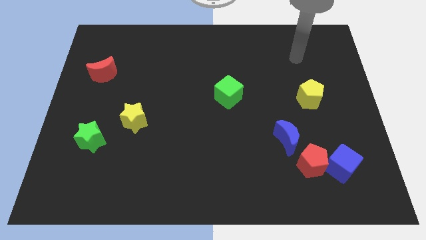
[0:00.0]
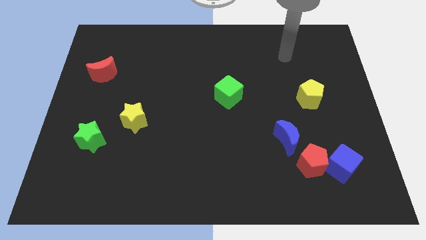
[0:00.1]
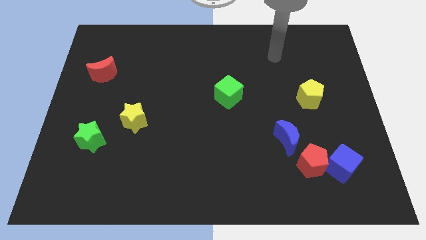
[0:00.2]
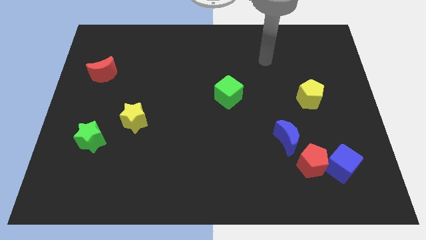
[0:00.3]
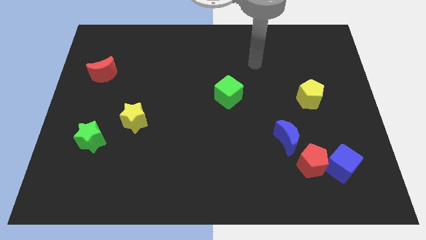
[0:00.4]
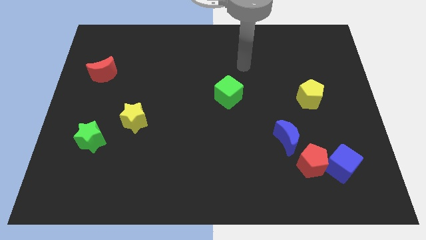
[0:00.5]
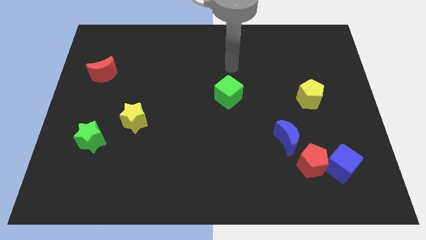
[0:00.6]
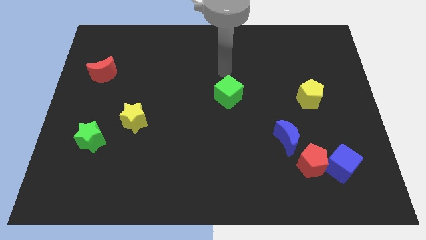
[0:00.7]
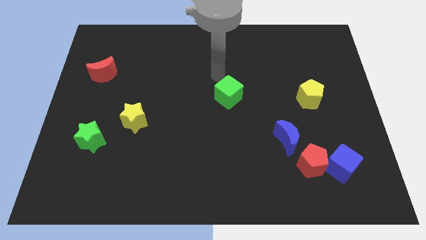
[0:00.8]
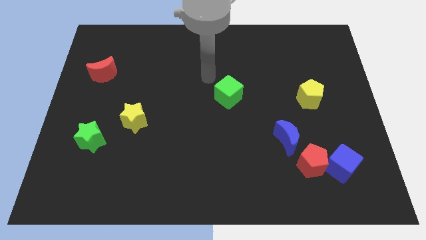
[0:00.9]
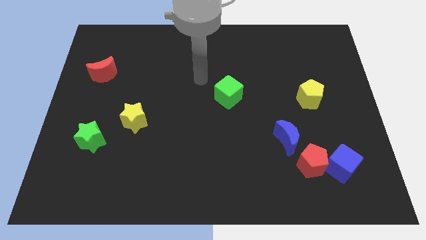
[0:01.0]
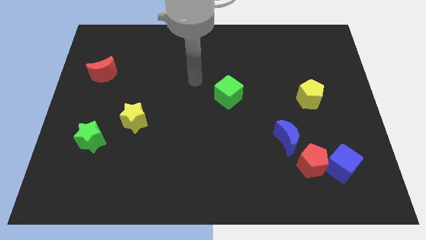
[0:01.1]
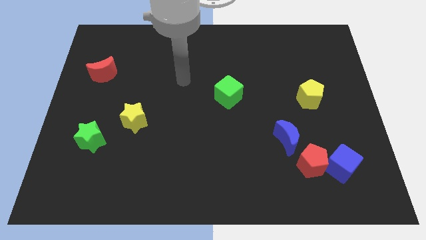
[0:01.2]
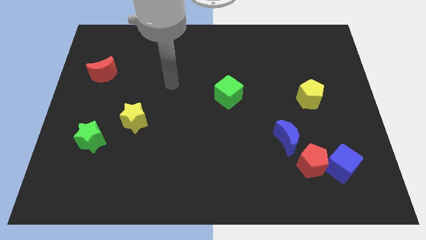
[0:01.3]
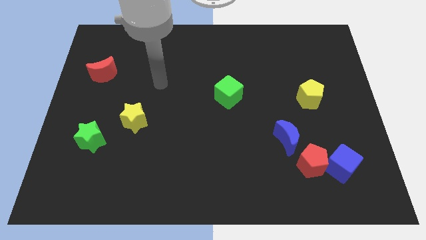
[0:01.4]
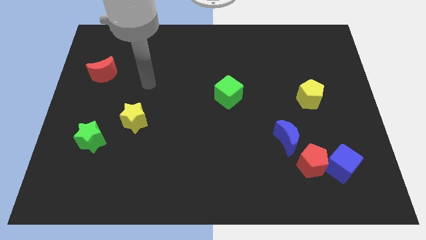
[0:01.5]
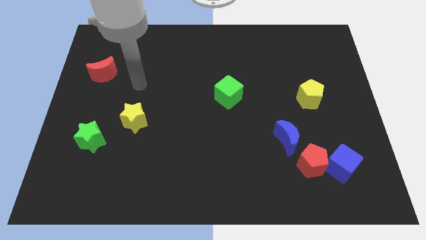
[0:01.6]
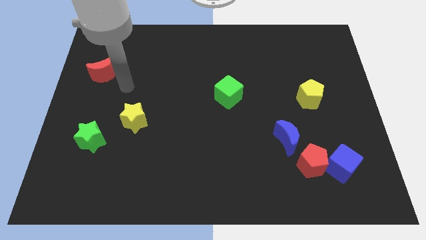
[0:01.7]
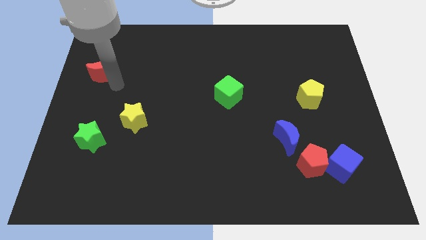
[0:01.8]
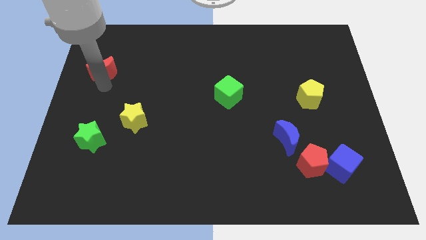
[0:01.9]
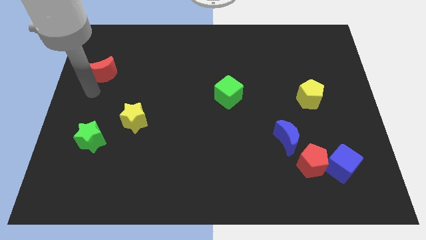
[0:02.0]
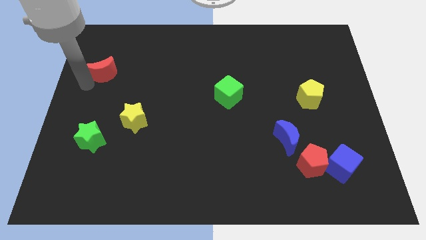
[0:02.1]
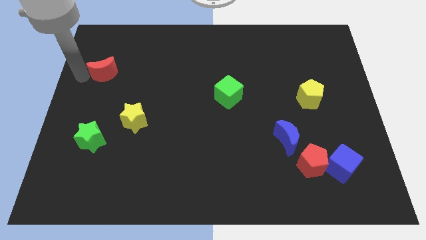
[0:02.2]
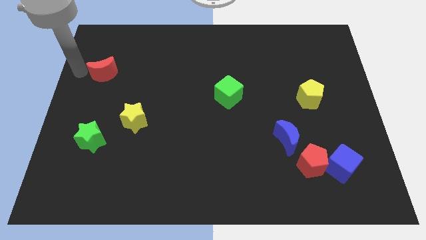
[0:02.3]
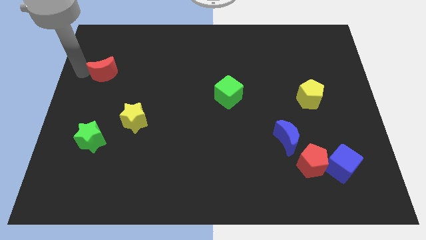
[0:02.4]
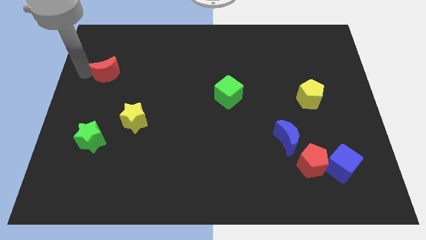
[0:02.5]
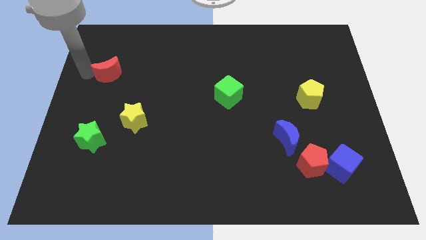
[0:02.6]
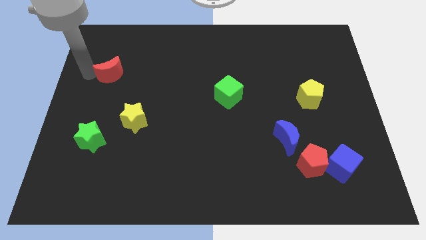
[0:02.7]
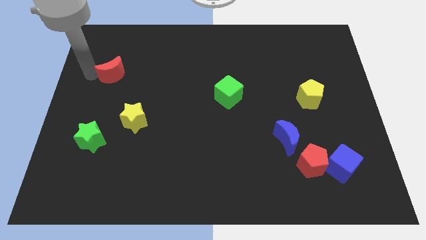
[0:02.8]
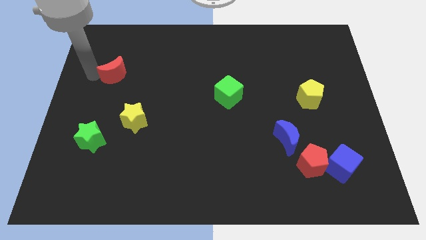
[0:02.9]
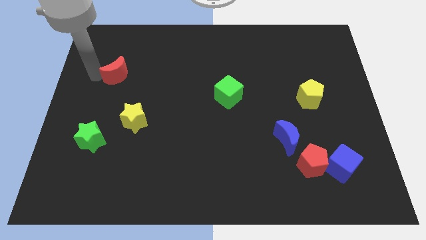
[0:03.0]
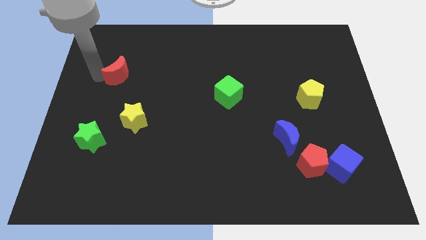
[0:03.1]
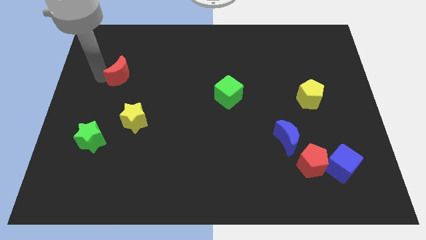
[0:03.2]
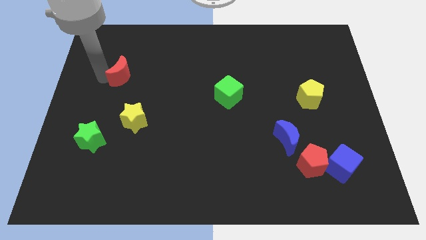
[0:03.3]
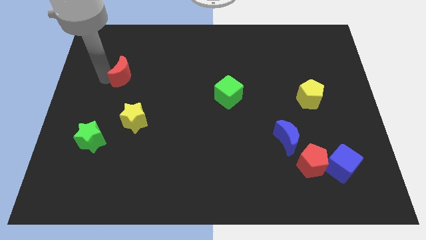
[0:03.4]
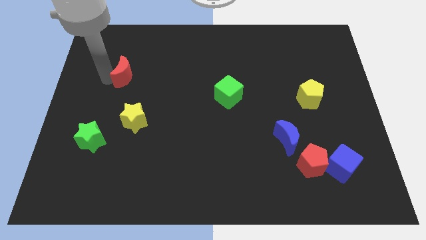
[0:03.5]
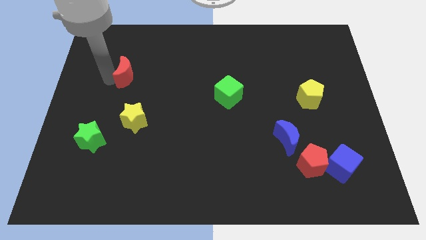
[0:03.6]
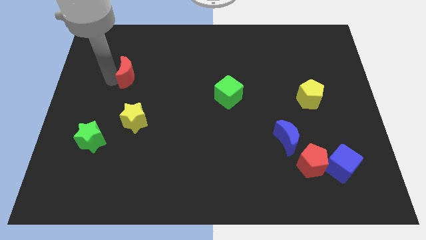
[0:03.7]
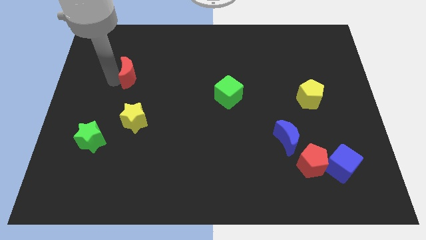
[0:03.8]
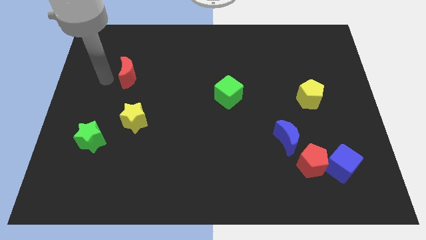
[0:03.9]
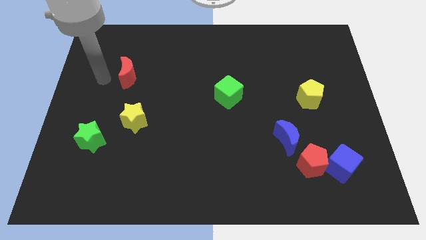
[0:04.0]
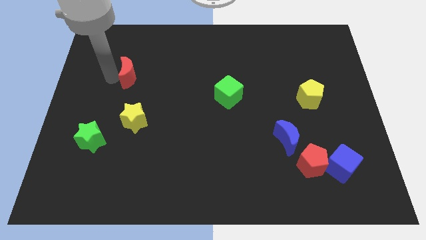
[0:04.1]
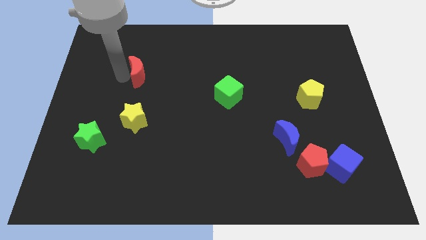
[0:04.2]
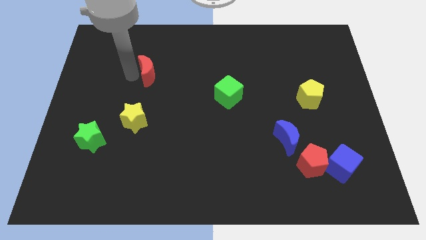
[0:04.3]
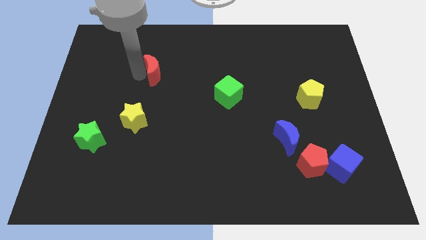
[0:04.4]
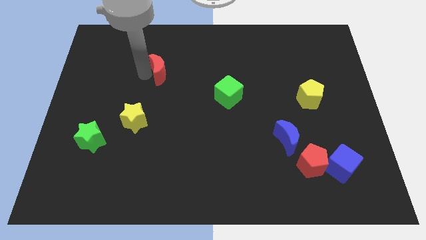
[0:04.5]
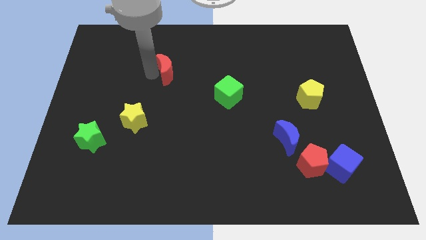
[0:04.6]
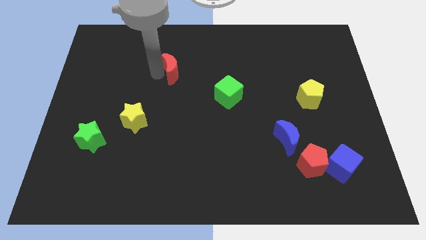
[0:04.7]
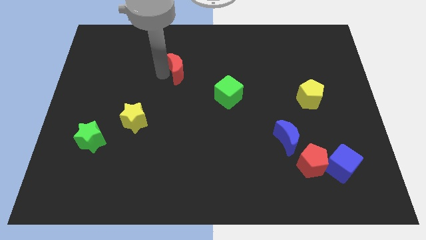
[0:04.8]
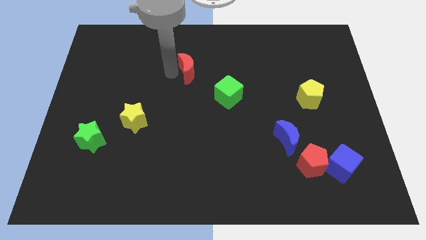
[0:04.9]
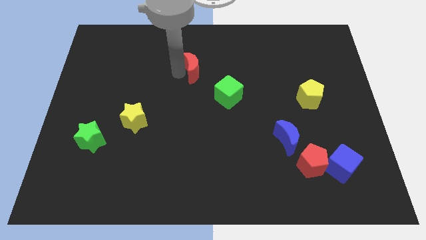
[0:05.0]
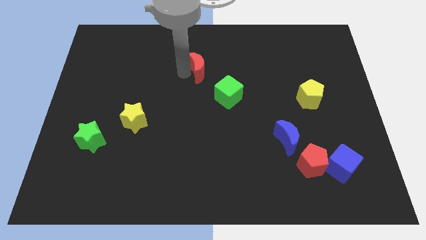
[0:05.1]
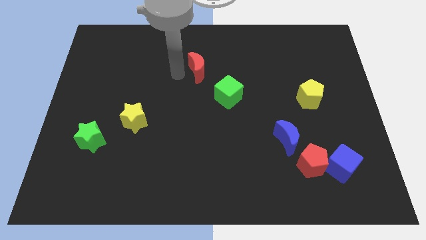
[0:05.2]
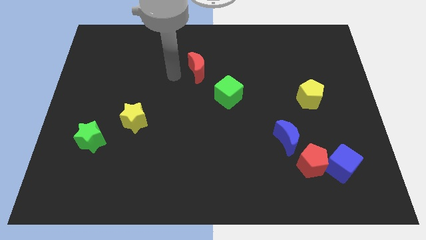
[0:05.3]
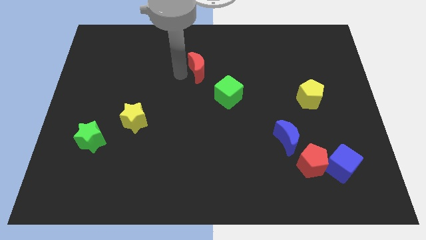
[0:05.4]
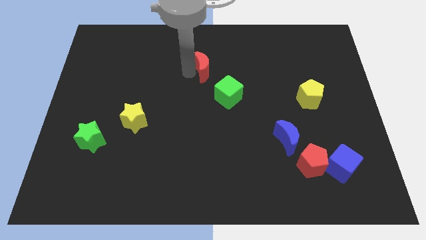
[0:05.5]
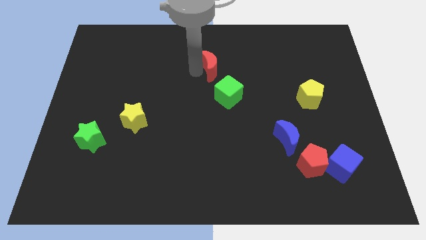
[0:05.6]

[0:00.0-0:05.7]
move the red moon to the top of the green cube
